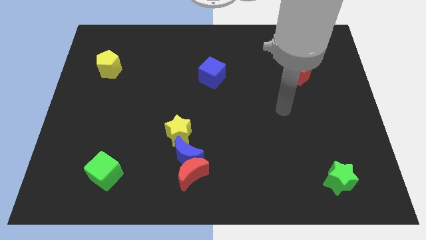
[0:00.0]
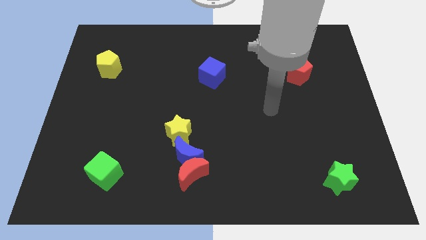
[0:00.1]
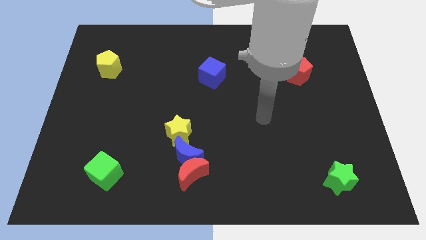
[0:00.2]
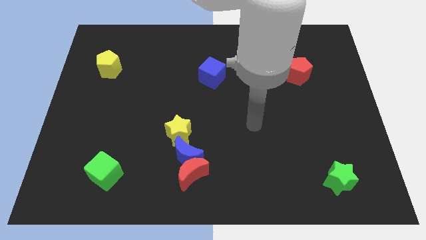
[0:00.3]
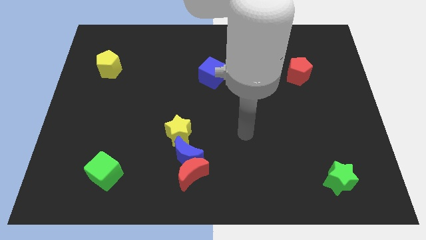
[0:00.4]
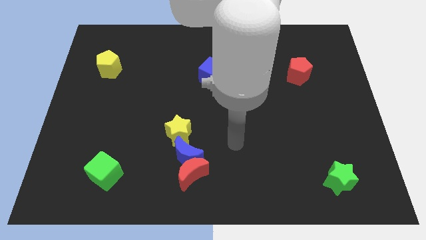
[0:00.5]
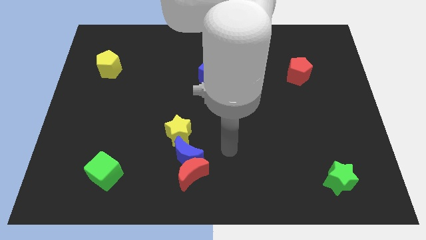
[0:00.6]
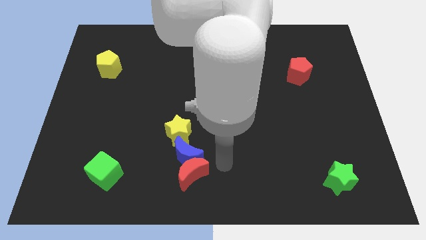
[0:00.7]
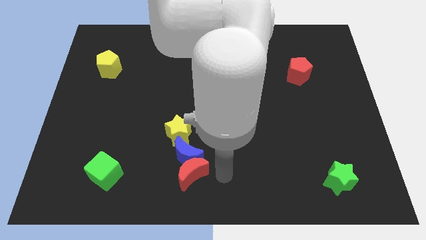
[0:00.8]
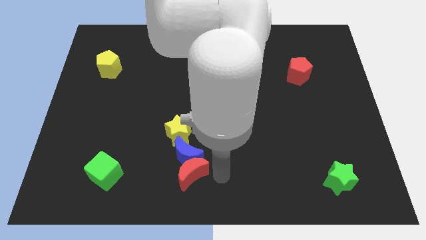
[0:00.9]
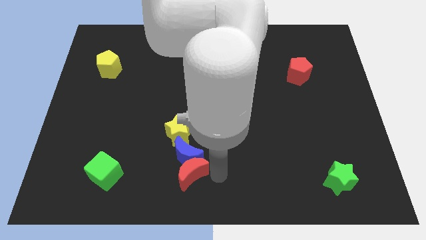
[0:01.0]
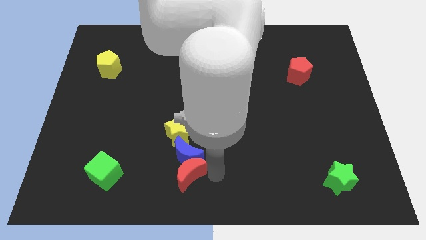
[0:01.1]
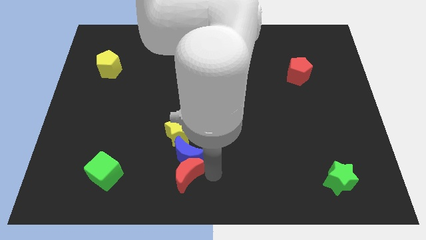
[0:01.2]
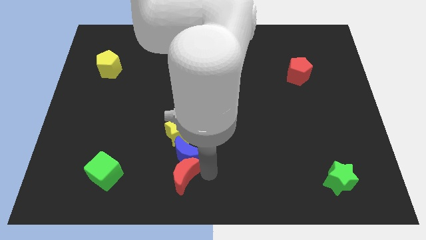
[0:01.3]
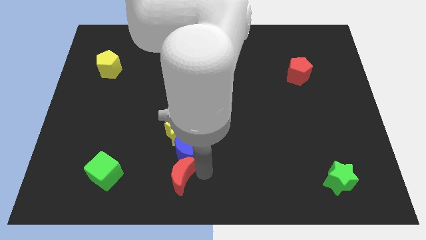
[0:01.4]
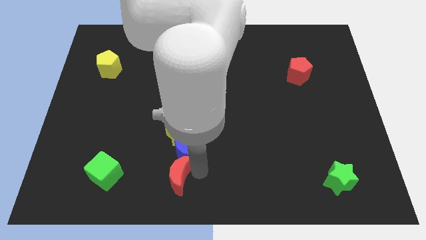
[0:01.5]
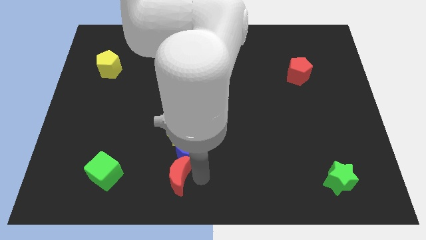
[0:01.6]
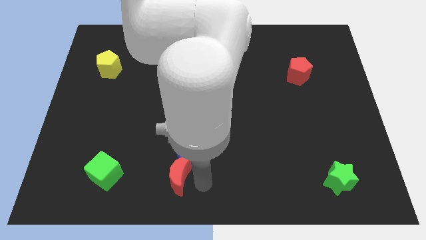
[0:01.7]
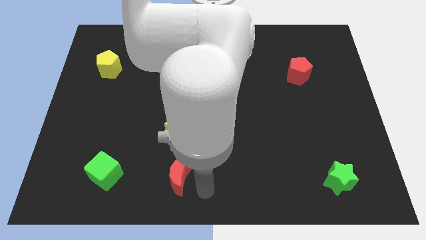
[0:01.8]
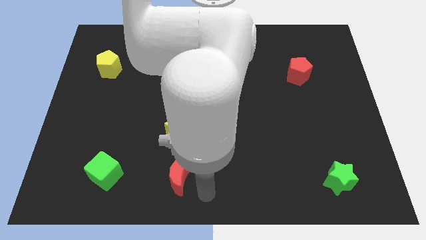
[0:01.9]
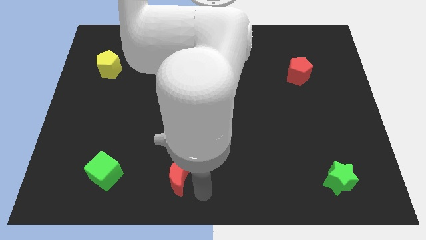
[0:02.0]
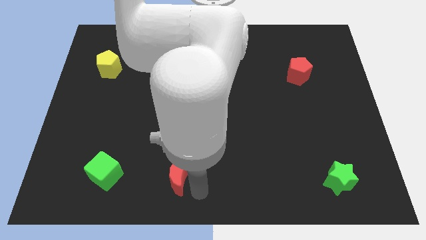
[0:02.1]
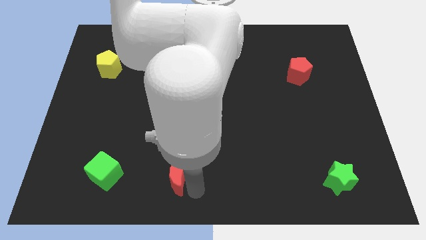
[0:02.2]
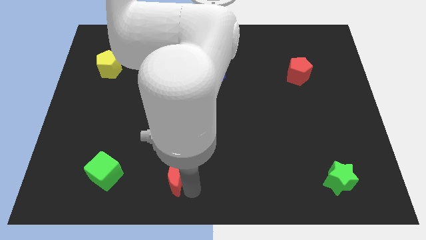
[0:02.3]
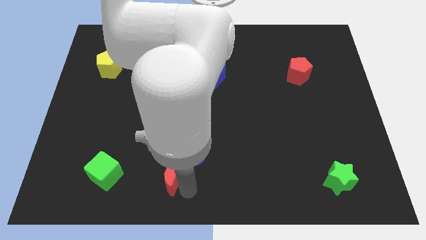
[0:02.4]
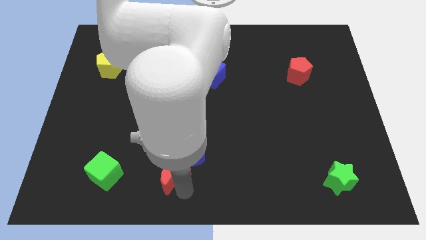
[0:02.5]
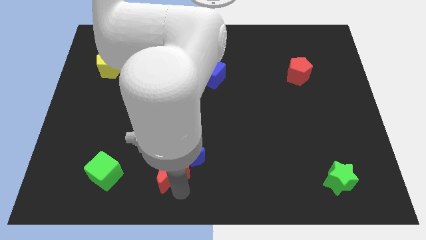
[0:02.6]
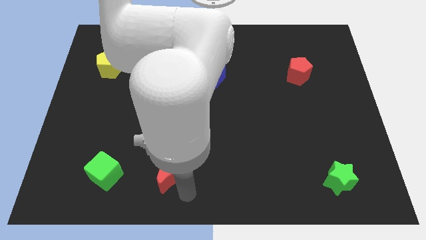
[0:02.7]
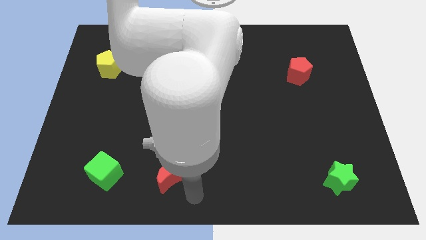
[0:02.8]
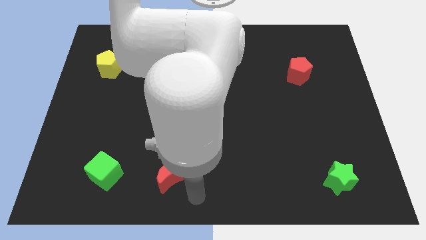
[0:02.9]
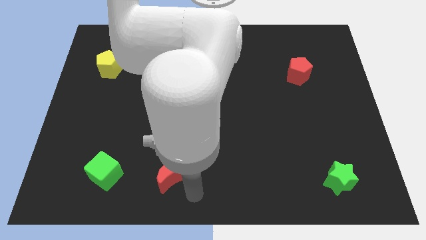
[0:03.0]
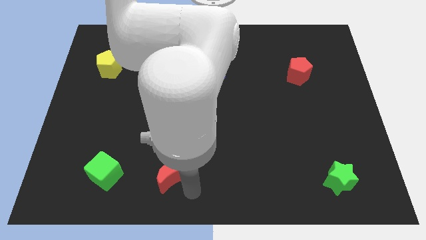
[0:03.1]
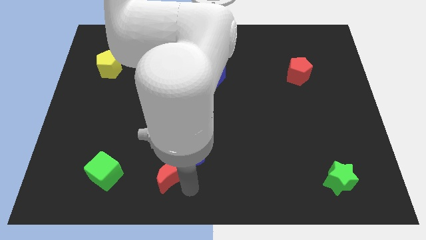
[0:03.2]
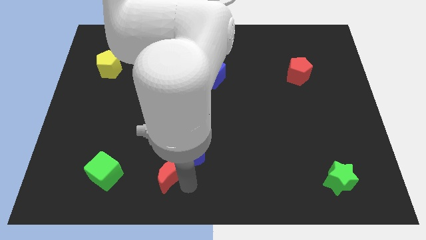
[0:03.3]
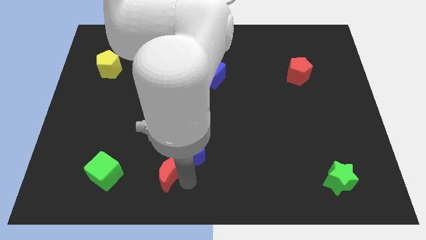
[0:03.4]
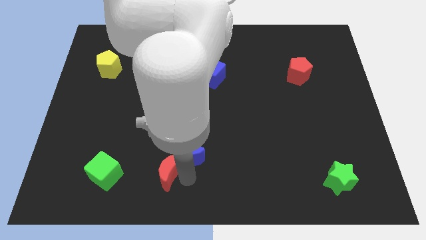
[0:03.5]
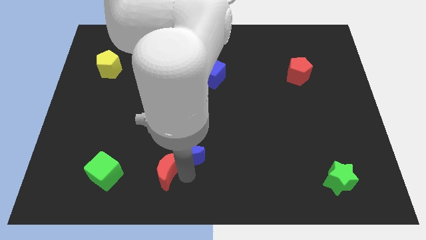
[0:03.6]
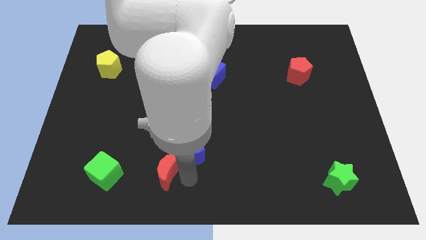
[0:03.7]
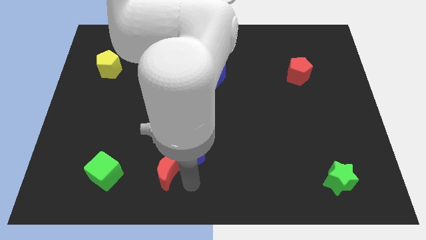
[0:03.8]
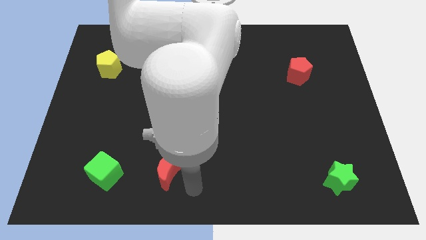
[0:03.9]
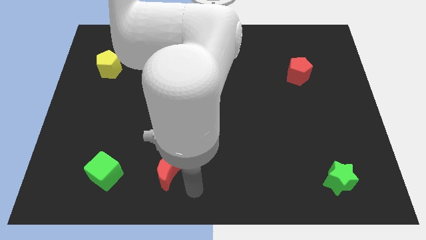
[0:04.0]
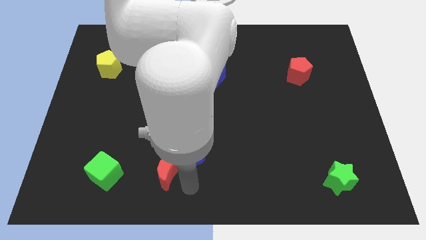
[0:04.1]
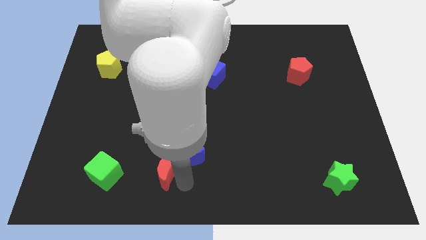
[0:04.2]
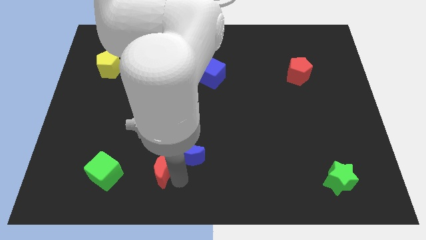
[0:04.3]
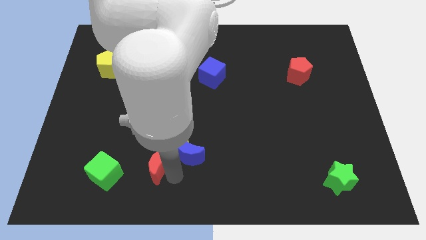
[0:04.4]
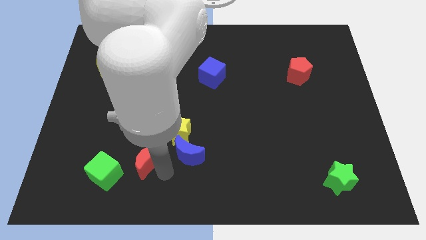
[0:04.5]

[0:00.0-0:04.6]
slightly move the red moon upwards and left

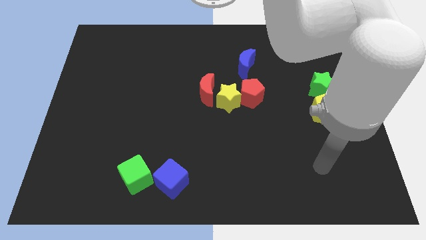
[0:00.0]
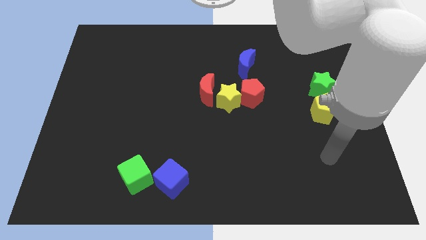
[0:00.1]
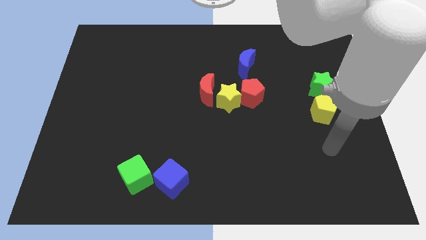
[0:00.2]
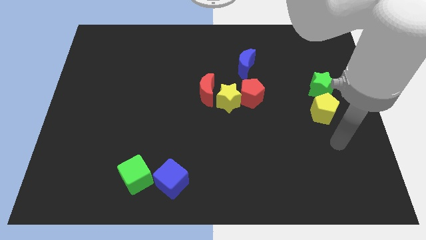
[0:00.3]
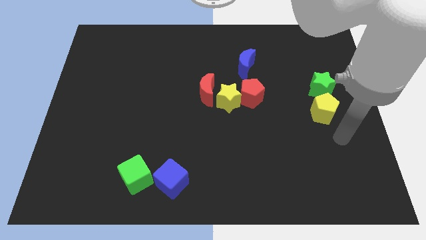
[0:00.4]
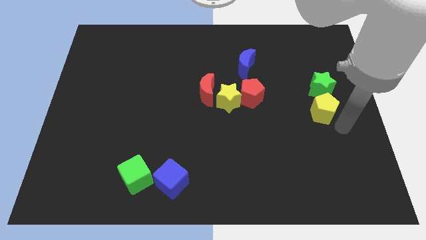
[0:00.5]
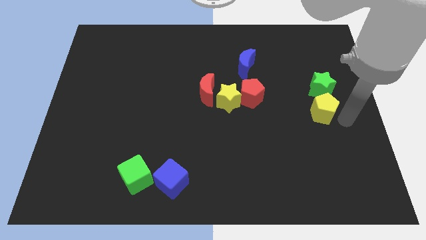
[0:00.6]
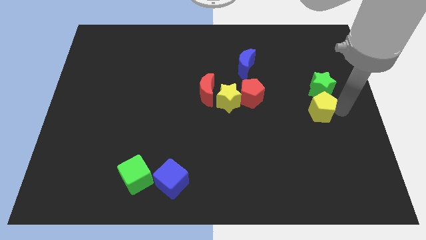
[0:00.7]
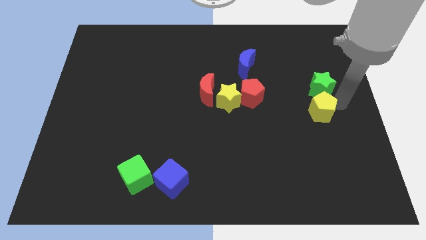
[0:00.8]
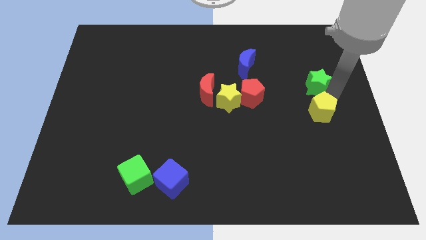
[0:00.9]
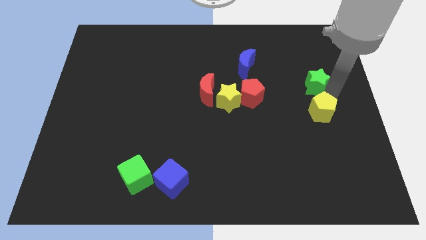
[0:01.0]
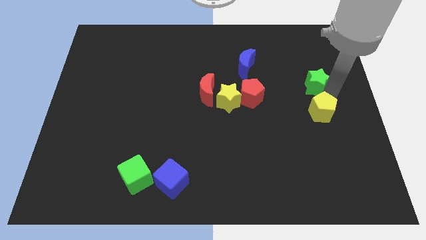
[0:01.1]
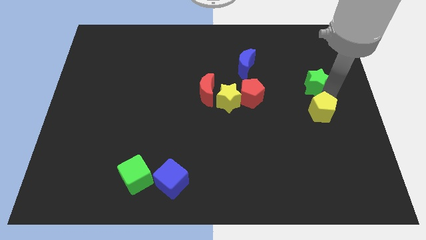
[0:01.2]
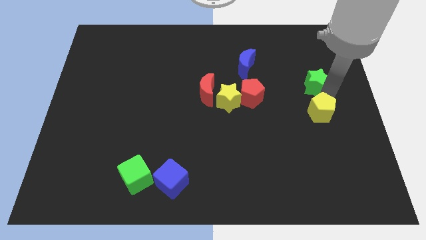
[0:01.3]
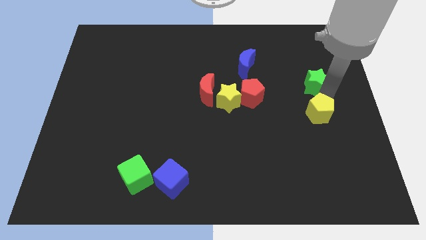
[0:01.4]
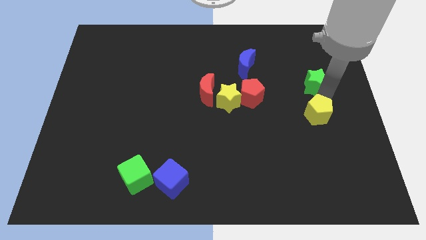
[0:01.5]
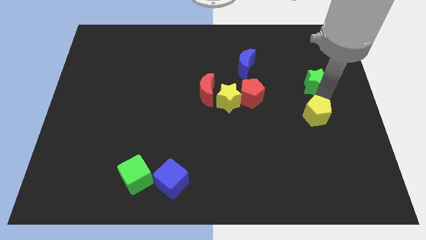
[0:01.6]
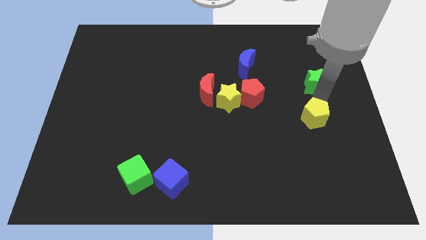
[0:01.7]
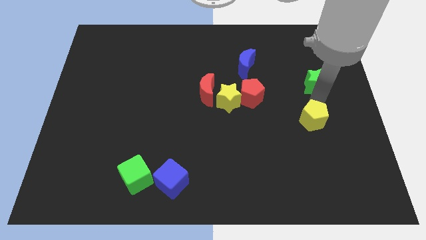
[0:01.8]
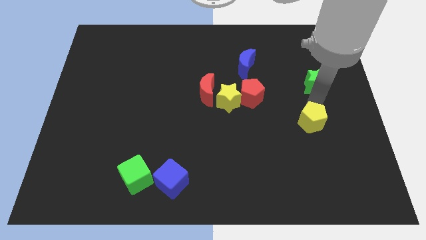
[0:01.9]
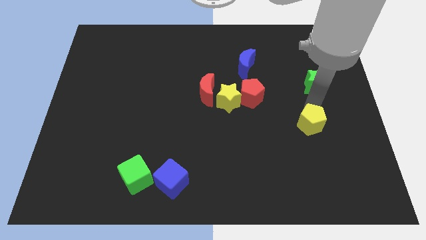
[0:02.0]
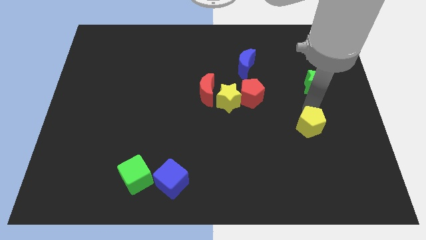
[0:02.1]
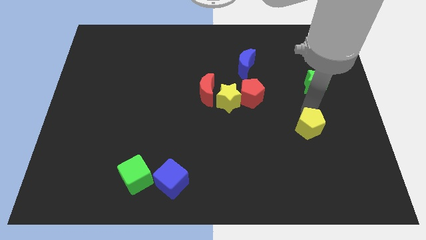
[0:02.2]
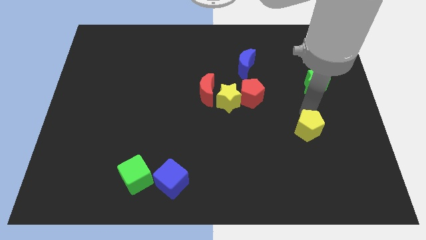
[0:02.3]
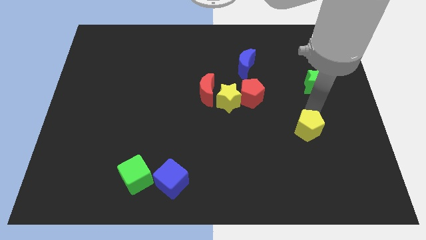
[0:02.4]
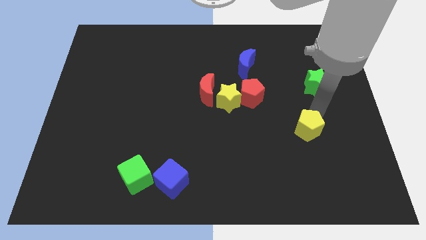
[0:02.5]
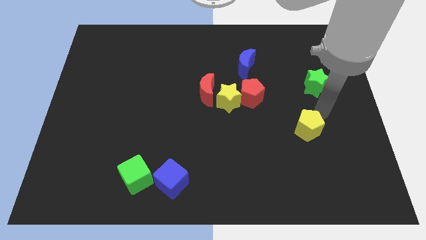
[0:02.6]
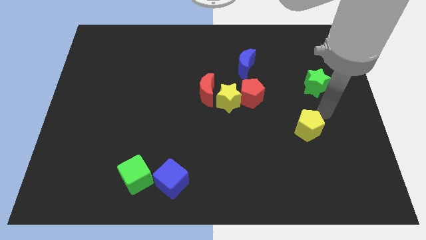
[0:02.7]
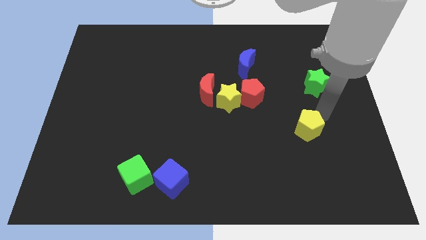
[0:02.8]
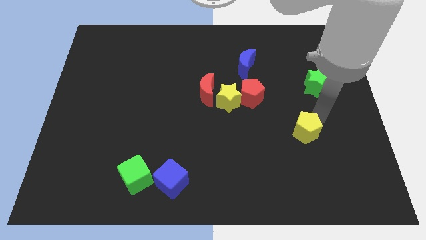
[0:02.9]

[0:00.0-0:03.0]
move the yellow pentagon diagonally downwards and to the left a bit

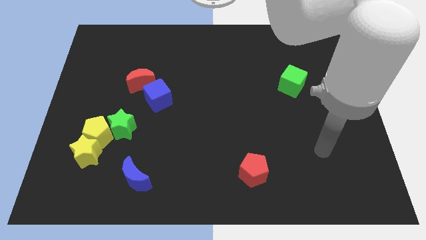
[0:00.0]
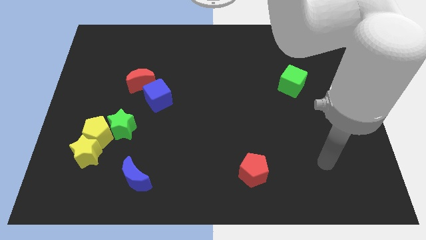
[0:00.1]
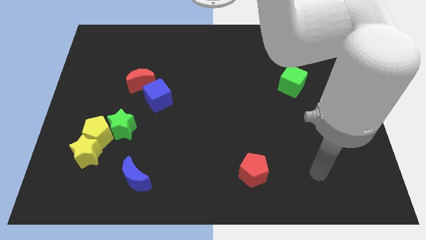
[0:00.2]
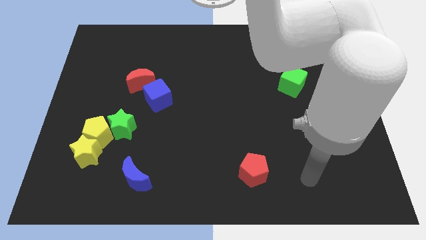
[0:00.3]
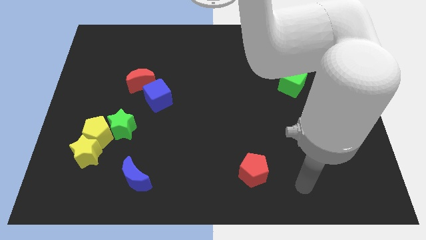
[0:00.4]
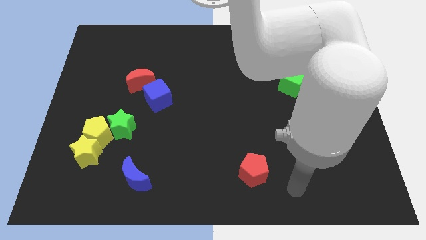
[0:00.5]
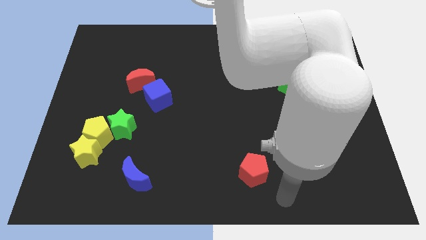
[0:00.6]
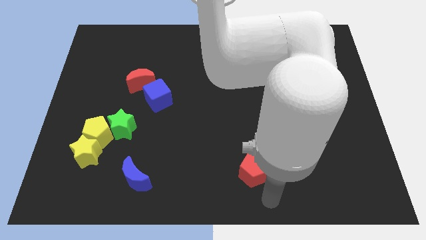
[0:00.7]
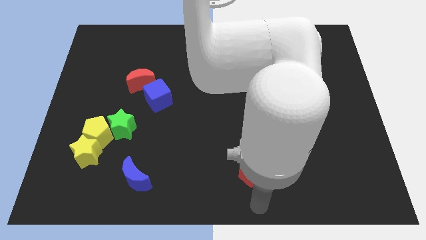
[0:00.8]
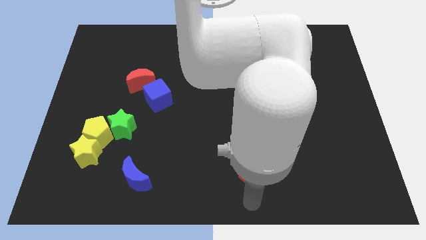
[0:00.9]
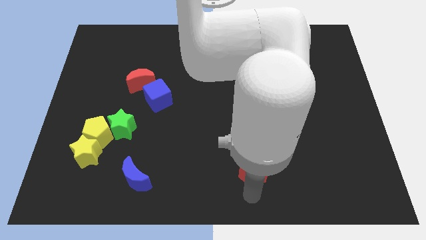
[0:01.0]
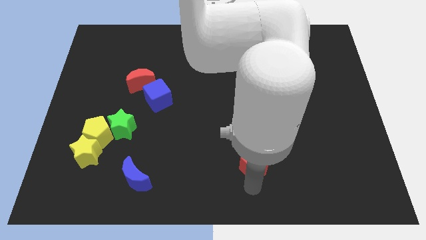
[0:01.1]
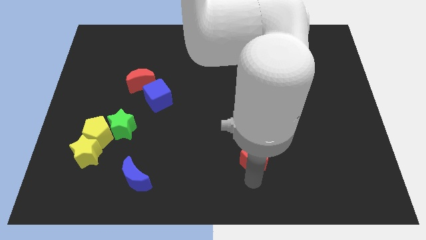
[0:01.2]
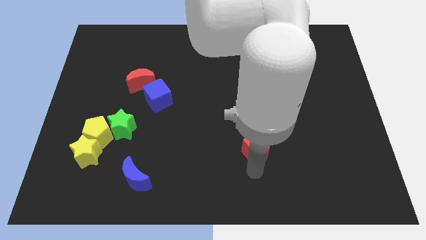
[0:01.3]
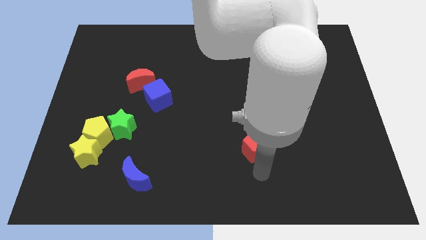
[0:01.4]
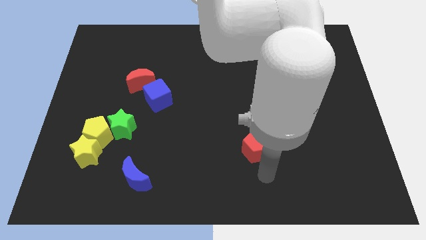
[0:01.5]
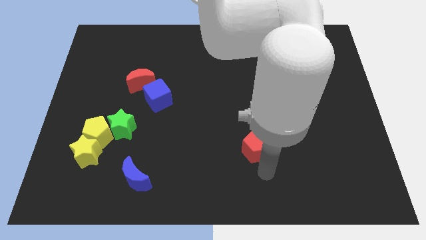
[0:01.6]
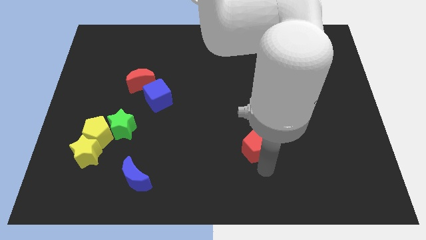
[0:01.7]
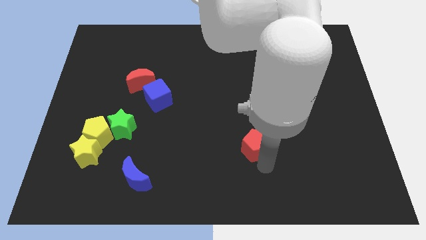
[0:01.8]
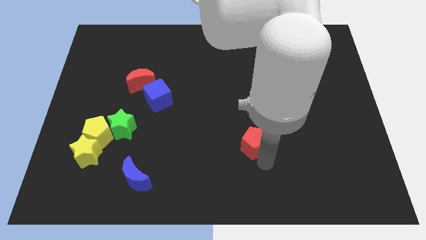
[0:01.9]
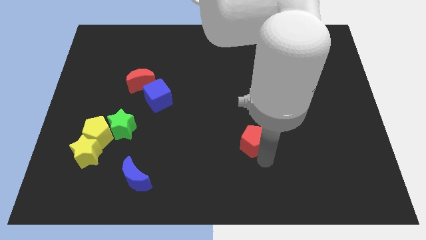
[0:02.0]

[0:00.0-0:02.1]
move the red pentagon upwards a little
